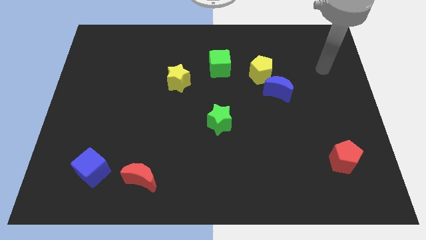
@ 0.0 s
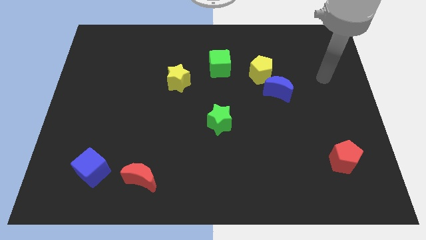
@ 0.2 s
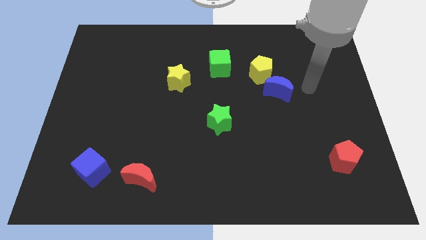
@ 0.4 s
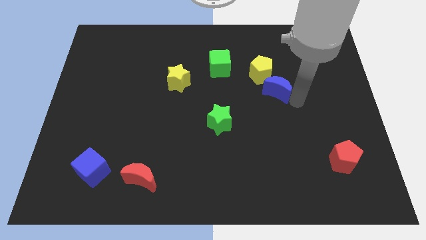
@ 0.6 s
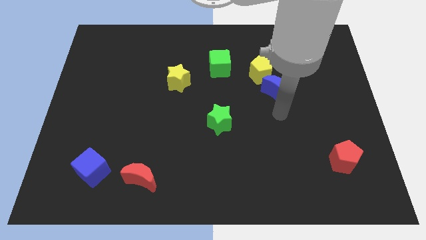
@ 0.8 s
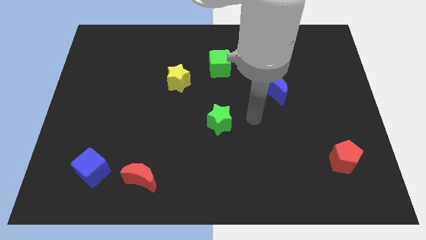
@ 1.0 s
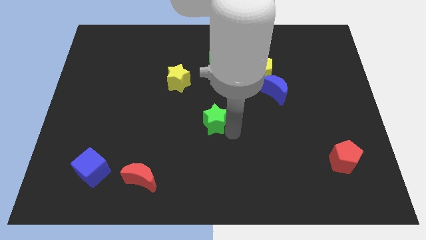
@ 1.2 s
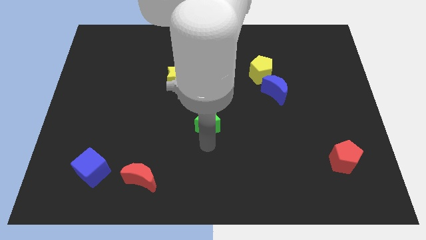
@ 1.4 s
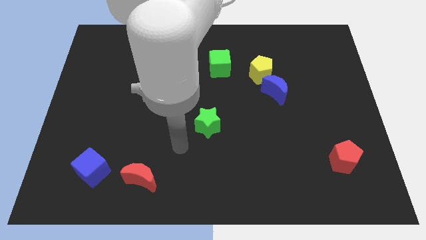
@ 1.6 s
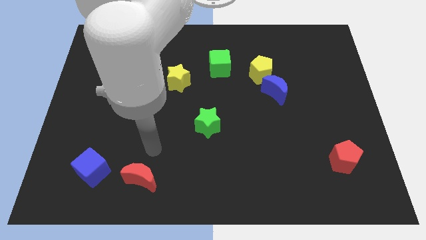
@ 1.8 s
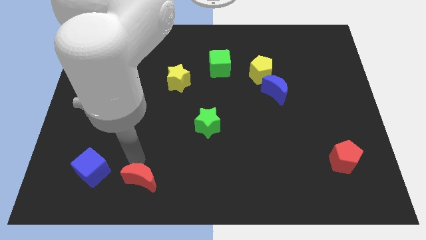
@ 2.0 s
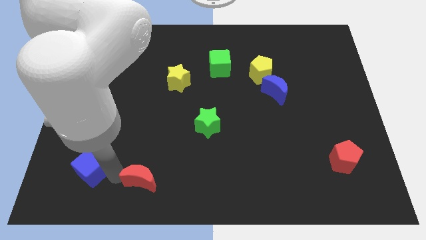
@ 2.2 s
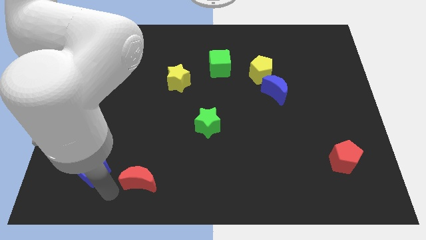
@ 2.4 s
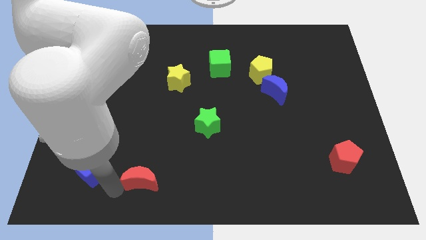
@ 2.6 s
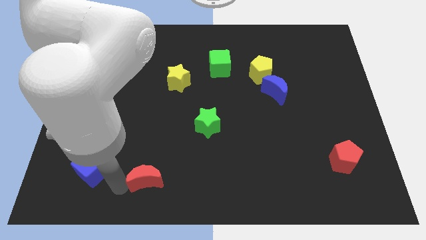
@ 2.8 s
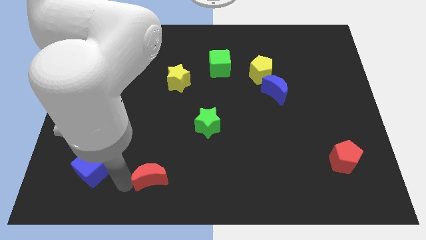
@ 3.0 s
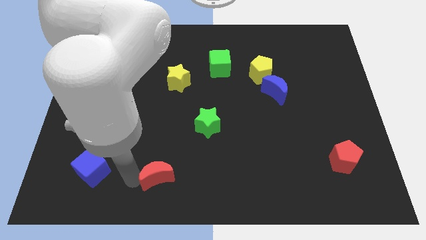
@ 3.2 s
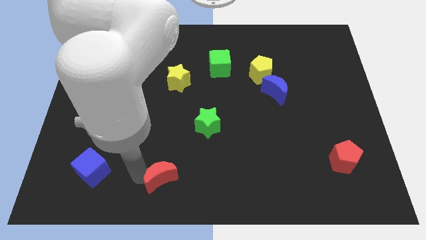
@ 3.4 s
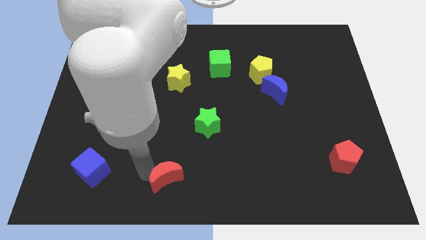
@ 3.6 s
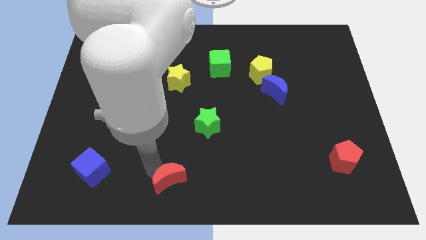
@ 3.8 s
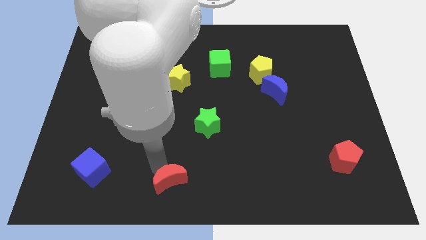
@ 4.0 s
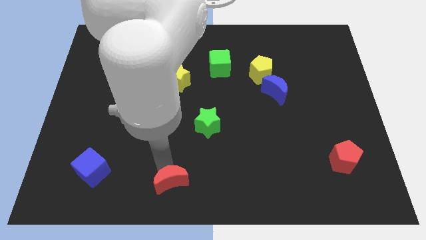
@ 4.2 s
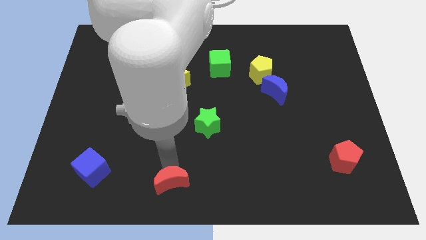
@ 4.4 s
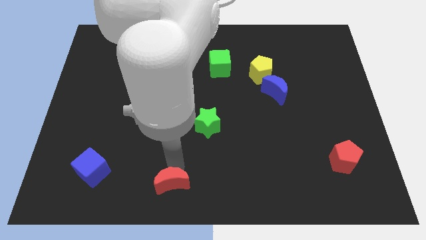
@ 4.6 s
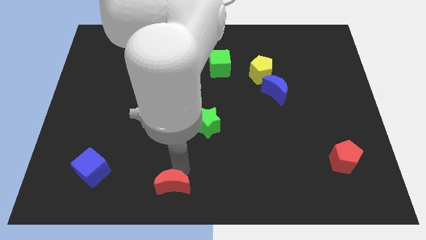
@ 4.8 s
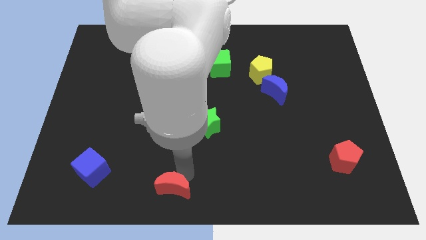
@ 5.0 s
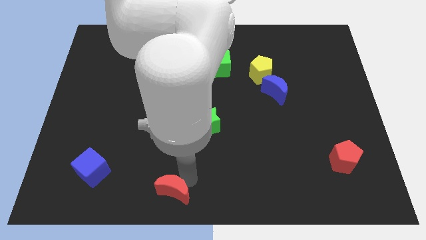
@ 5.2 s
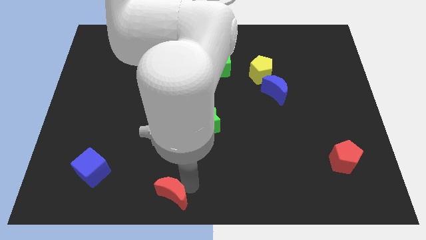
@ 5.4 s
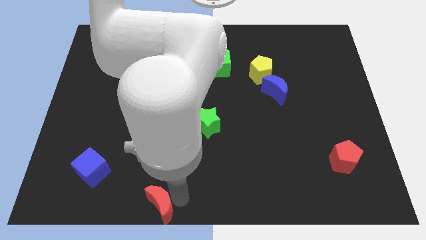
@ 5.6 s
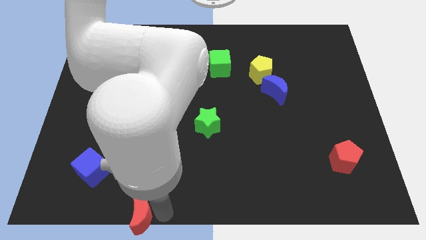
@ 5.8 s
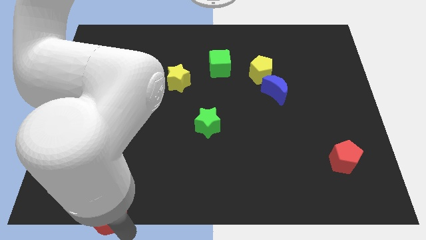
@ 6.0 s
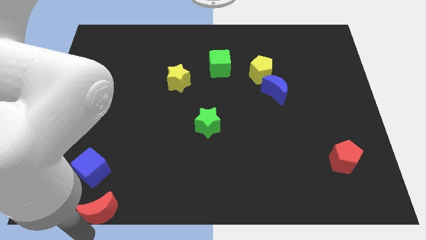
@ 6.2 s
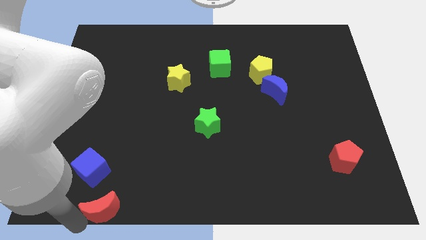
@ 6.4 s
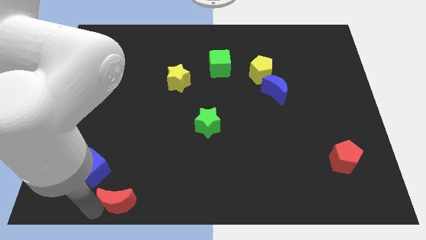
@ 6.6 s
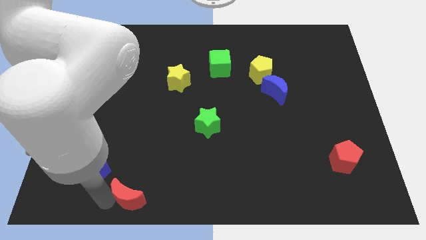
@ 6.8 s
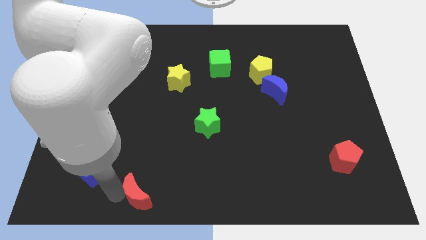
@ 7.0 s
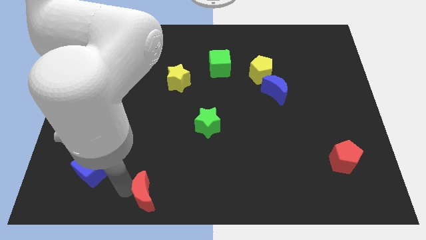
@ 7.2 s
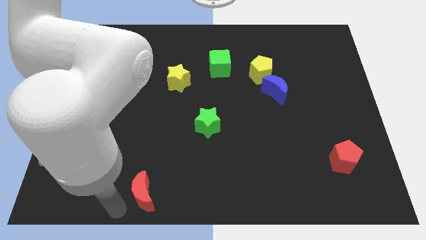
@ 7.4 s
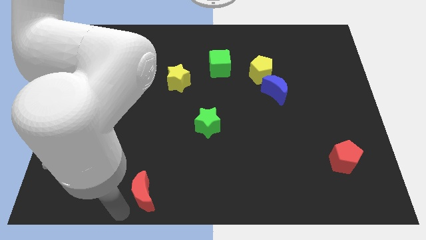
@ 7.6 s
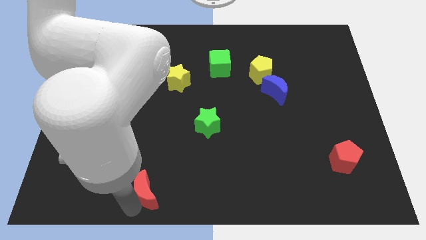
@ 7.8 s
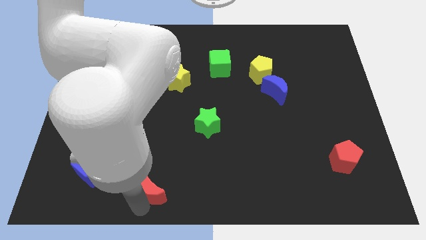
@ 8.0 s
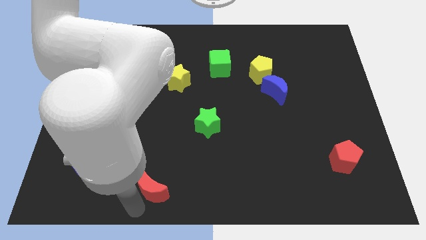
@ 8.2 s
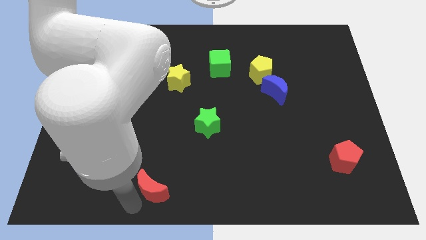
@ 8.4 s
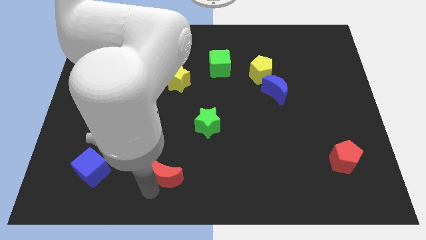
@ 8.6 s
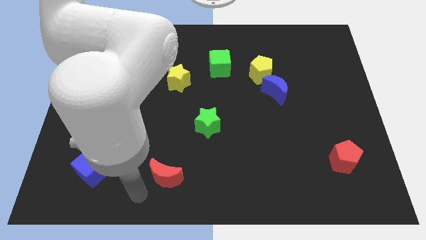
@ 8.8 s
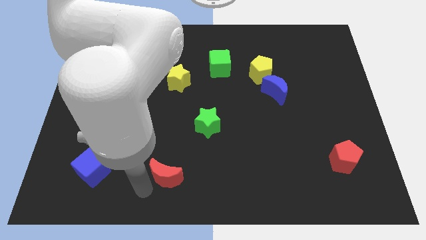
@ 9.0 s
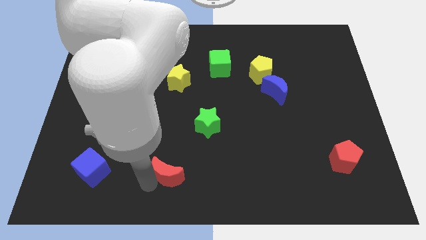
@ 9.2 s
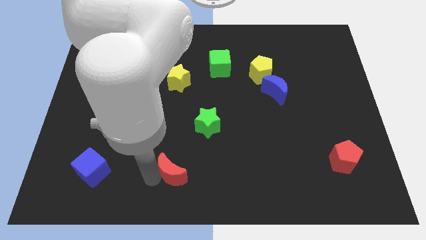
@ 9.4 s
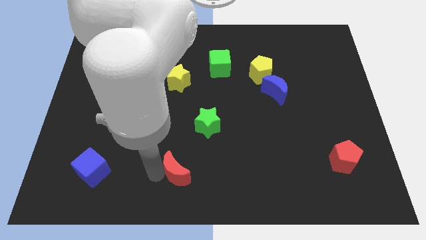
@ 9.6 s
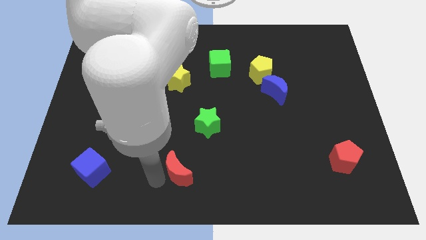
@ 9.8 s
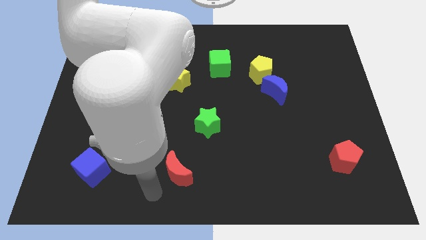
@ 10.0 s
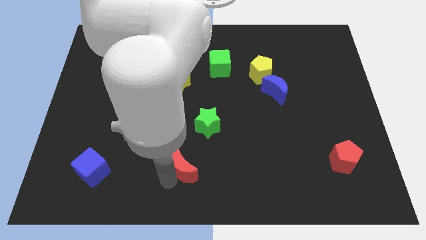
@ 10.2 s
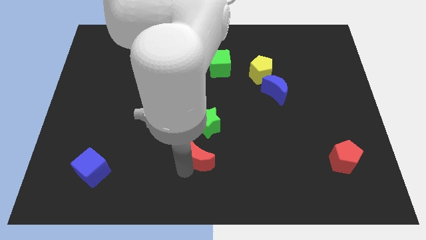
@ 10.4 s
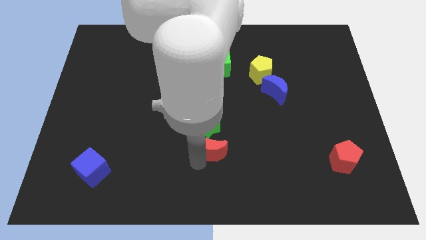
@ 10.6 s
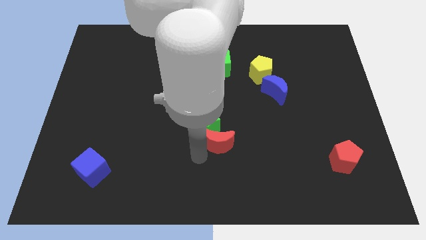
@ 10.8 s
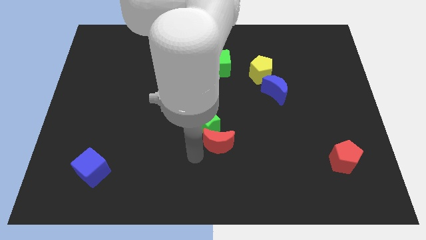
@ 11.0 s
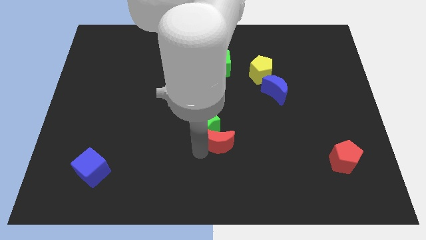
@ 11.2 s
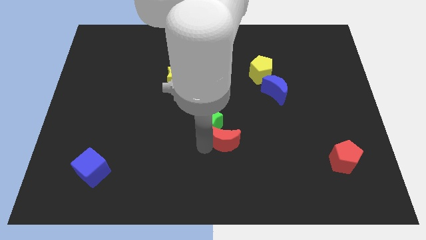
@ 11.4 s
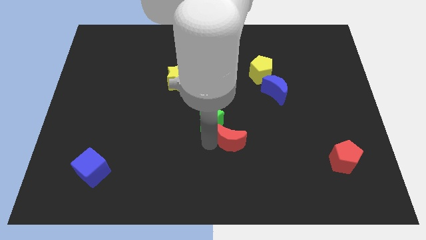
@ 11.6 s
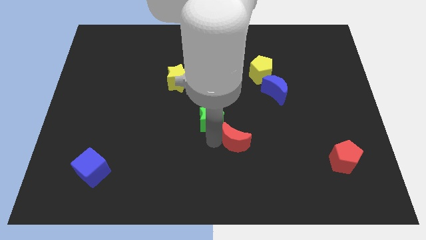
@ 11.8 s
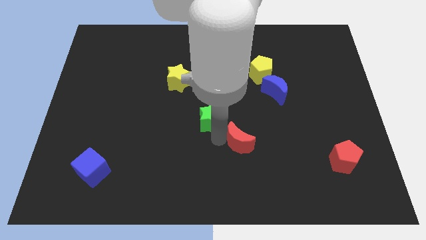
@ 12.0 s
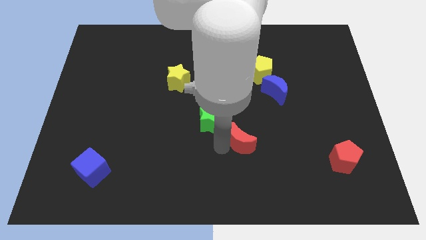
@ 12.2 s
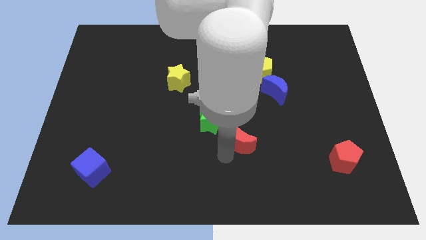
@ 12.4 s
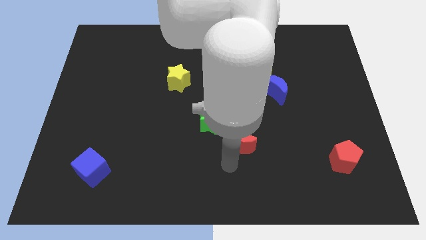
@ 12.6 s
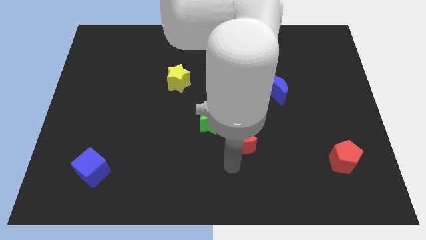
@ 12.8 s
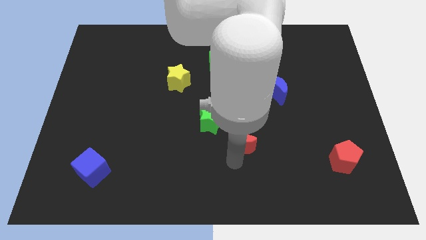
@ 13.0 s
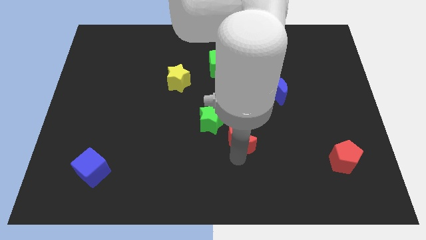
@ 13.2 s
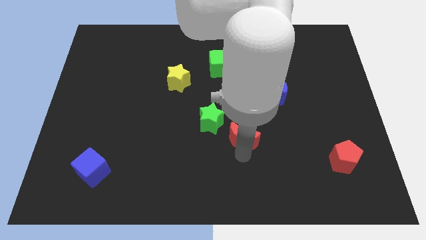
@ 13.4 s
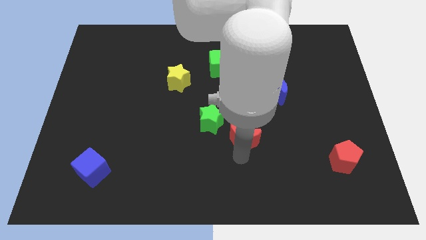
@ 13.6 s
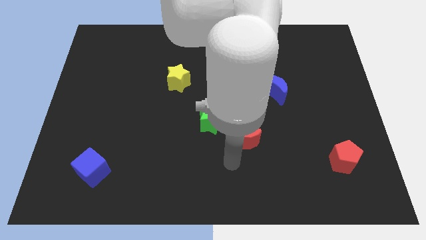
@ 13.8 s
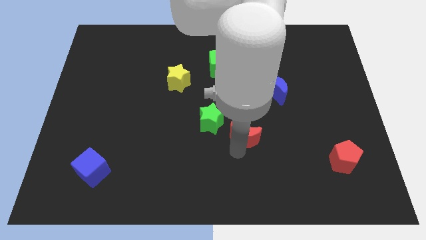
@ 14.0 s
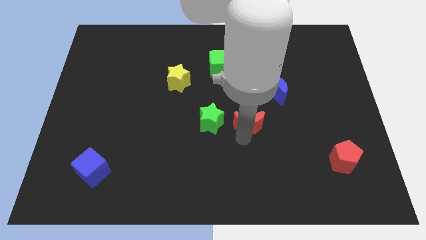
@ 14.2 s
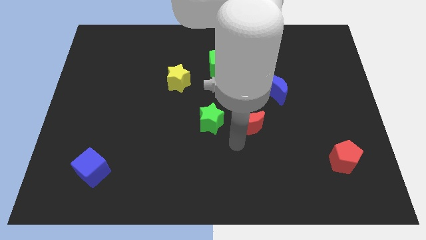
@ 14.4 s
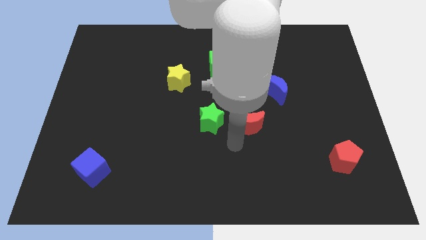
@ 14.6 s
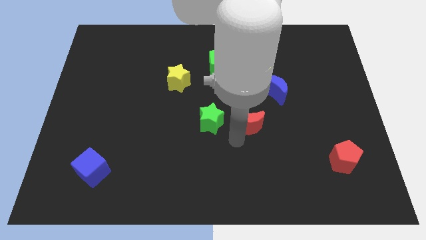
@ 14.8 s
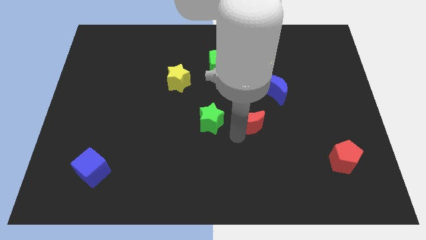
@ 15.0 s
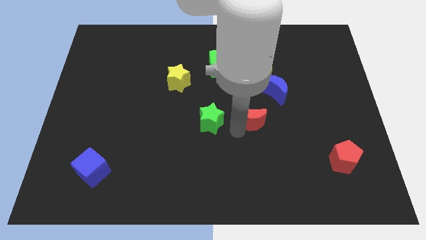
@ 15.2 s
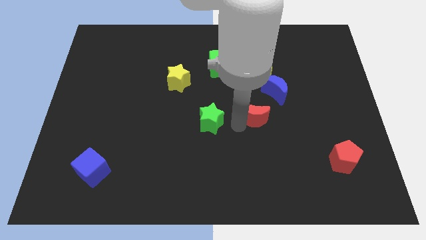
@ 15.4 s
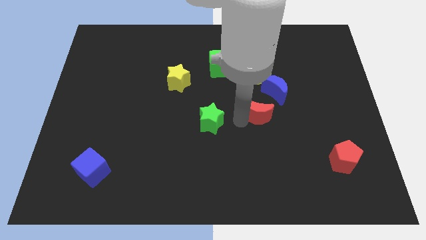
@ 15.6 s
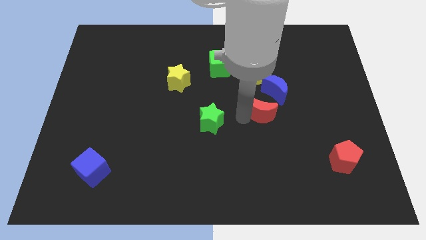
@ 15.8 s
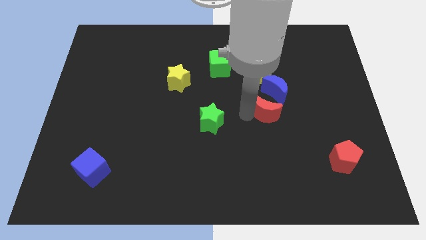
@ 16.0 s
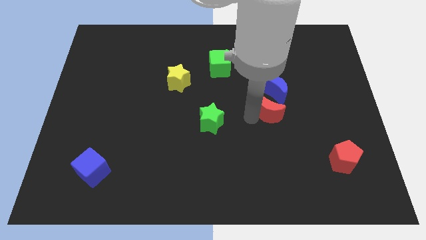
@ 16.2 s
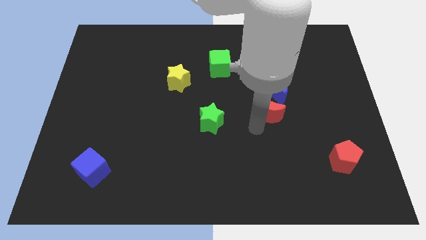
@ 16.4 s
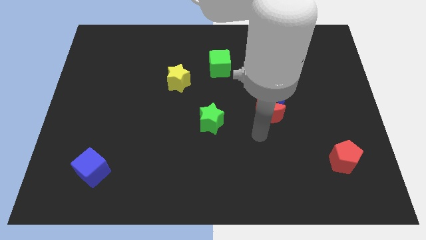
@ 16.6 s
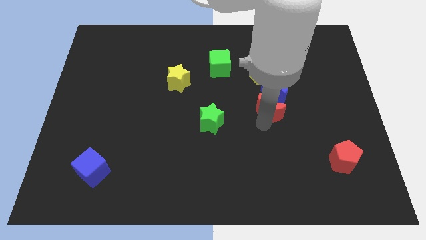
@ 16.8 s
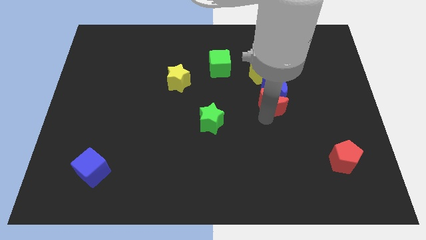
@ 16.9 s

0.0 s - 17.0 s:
push the red moon next to the blue moon
